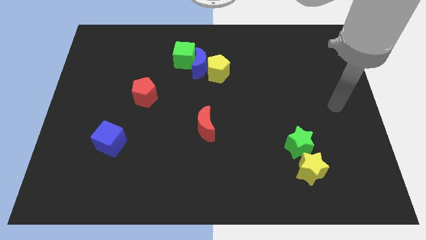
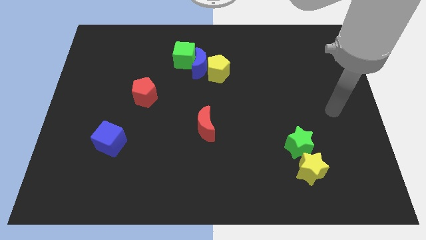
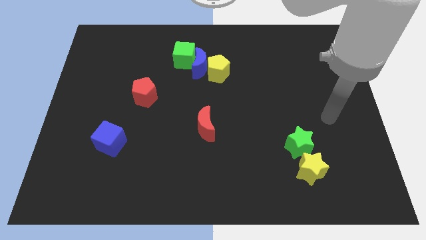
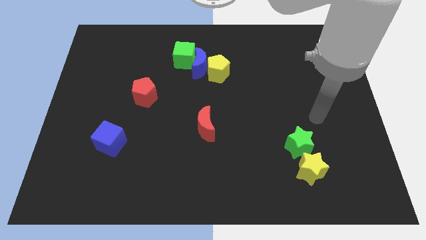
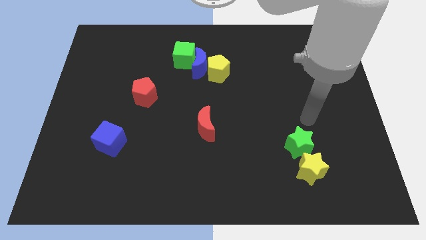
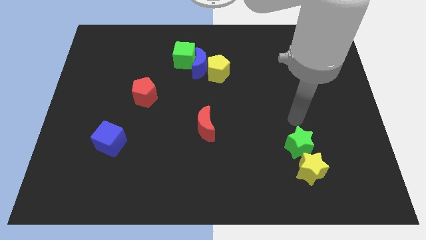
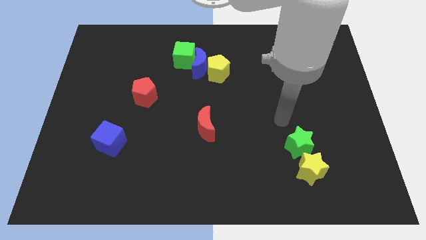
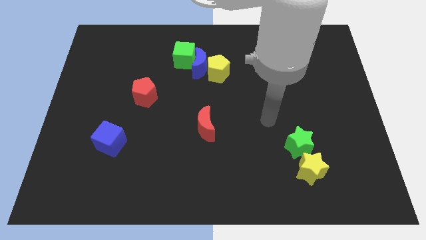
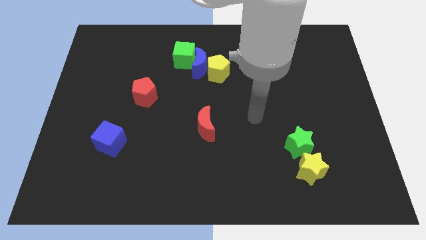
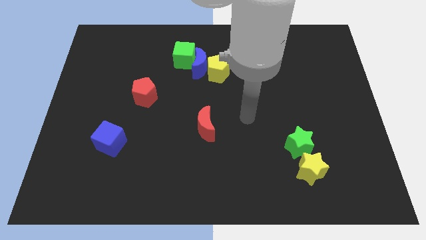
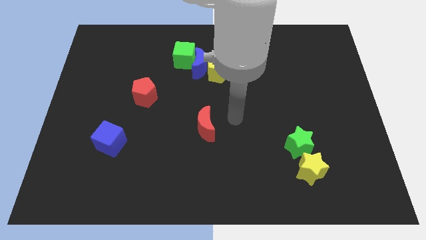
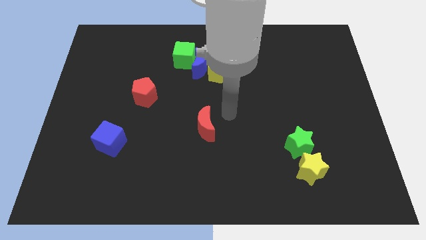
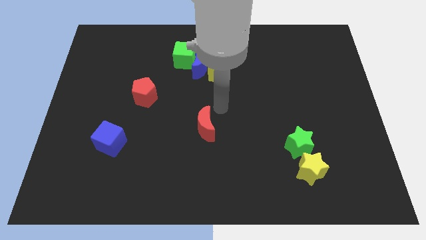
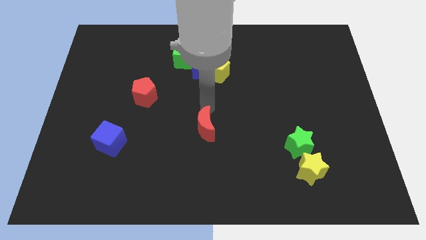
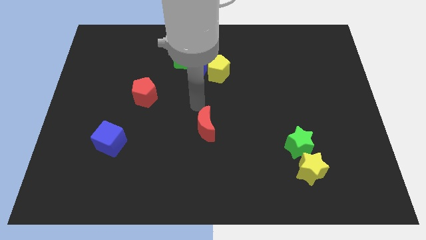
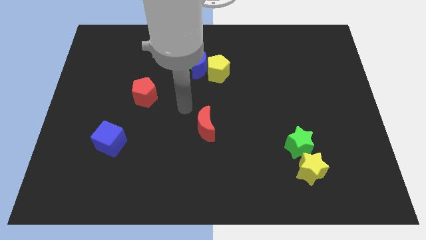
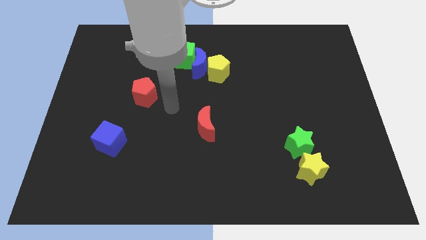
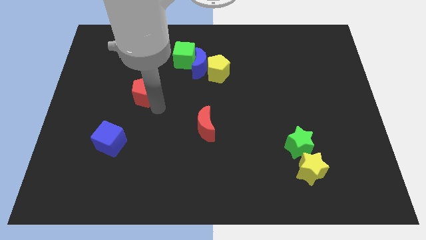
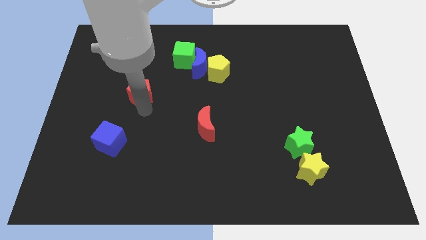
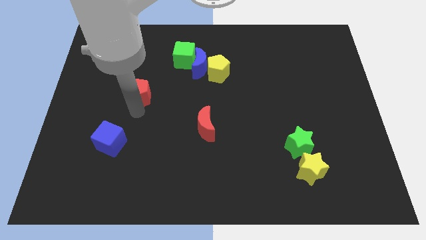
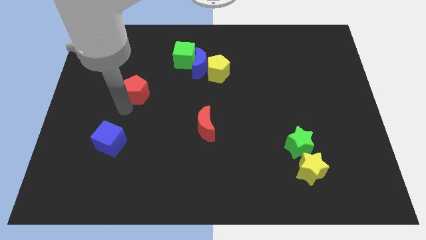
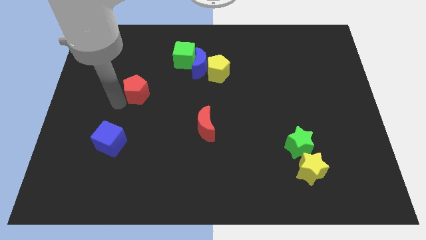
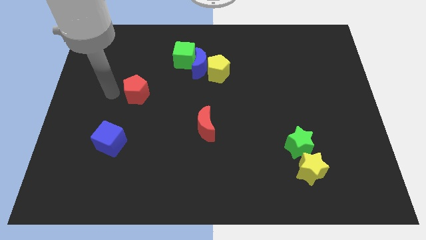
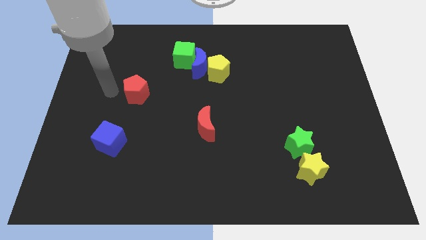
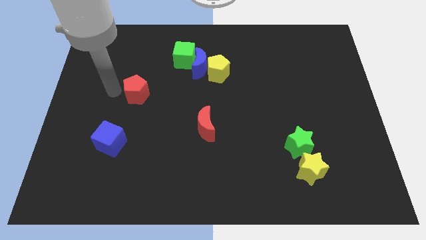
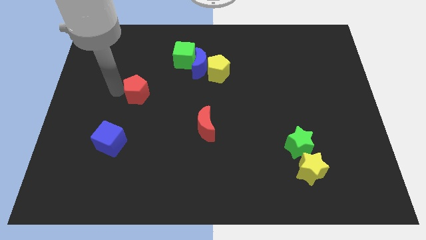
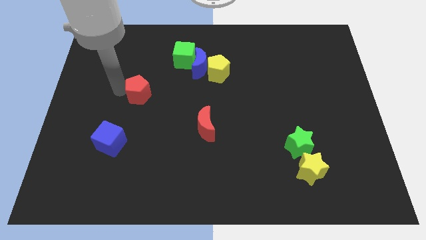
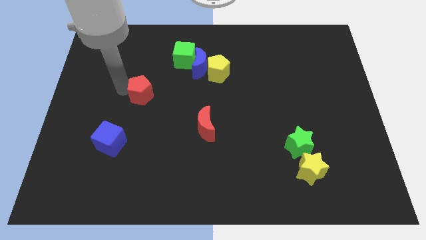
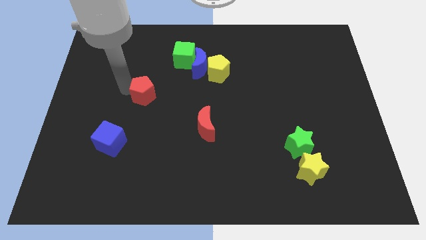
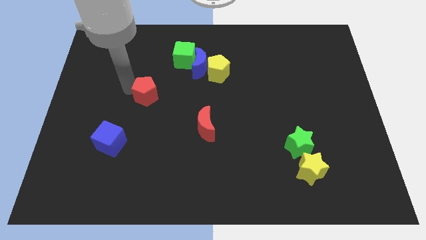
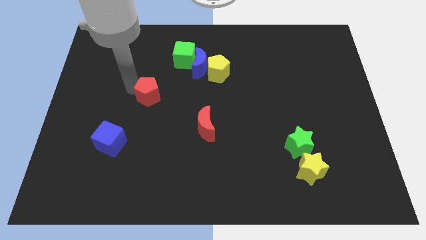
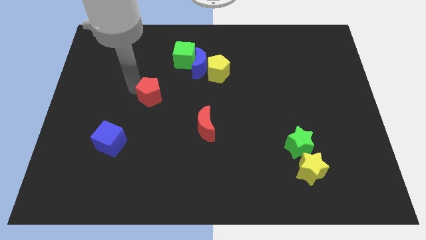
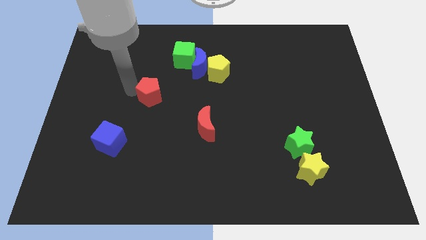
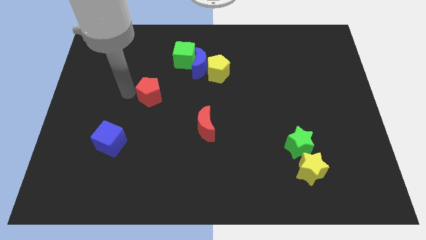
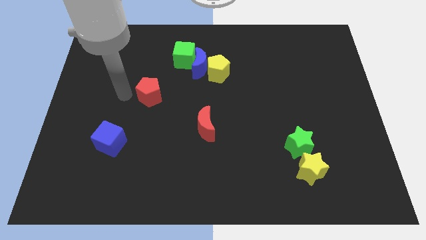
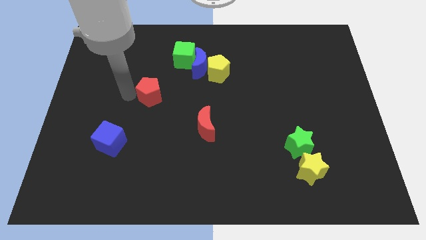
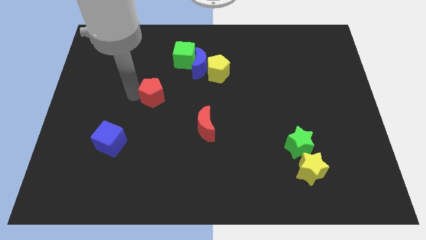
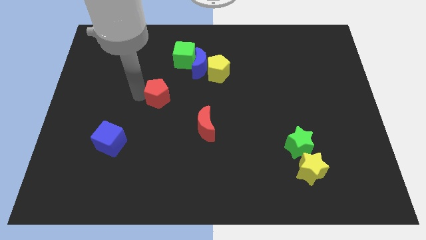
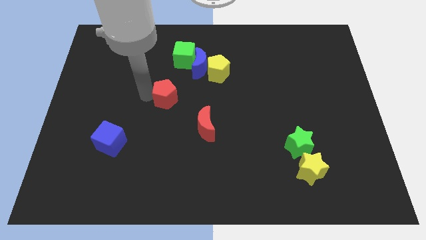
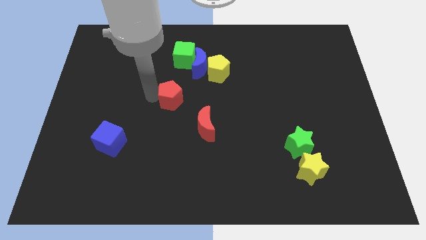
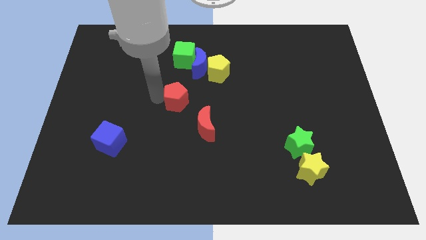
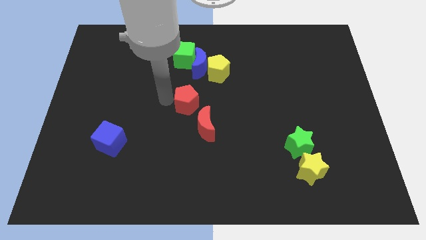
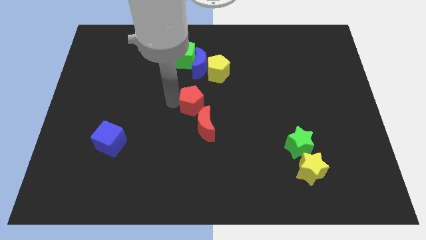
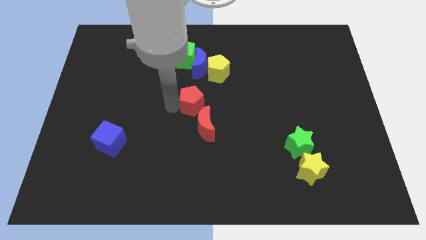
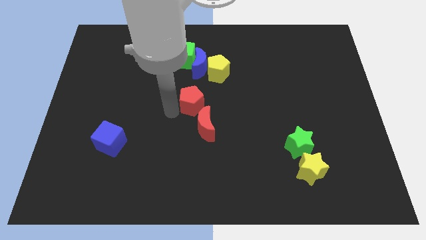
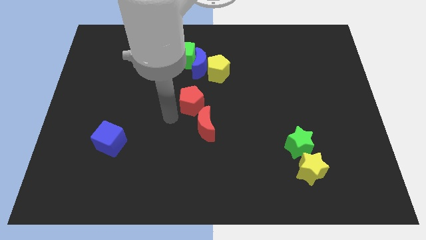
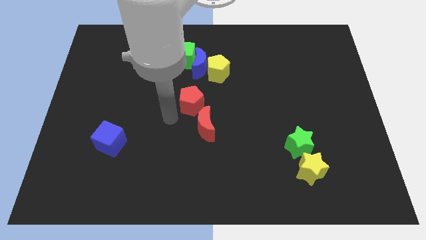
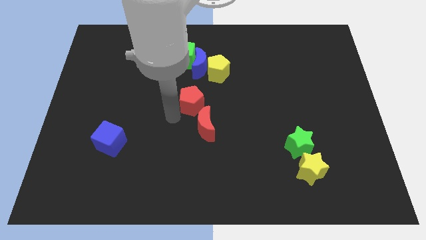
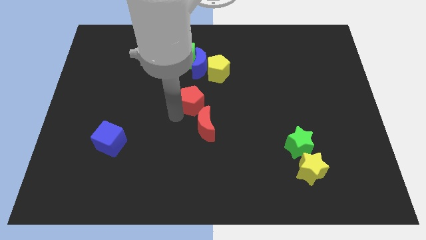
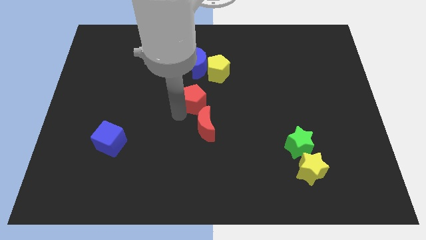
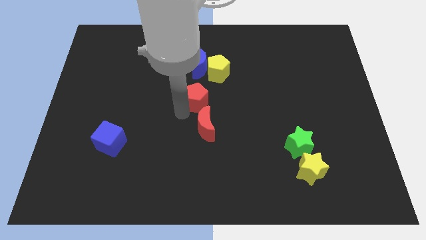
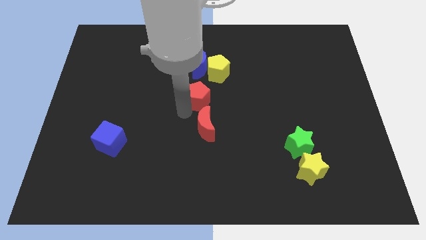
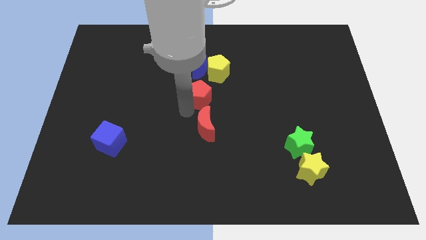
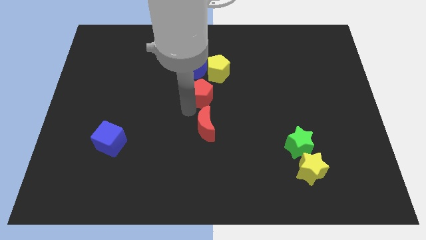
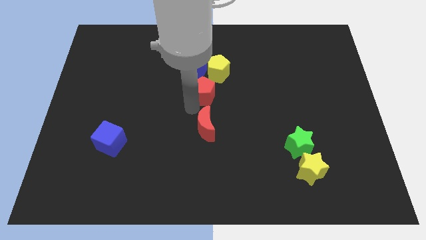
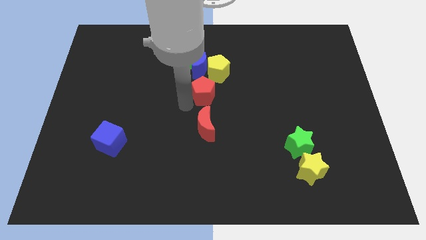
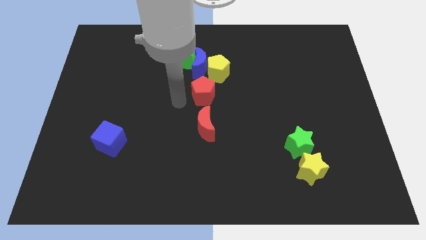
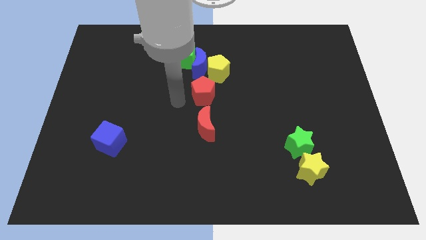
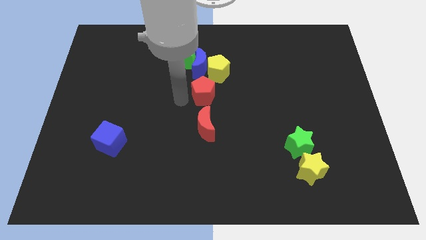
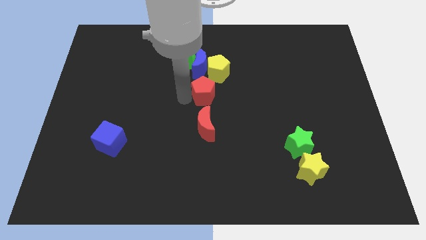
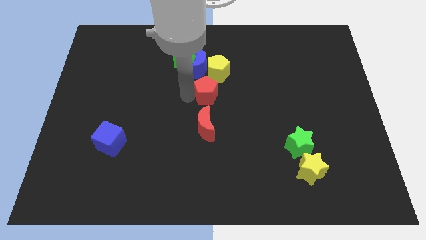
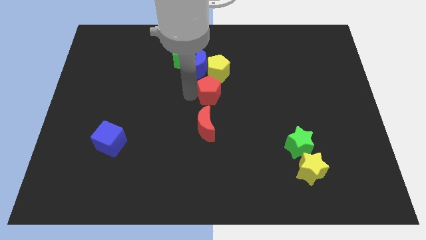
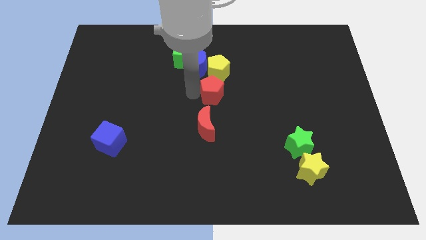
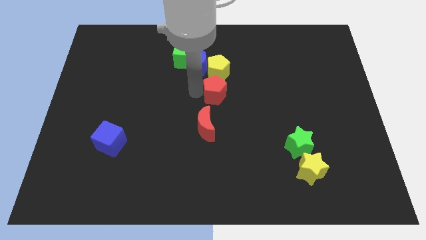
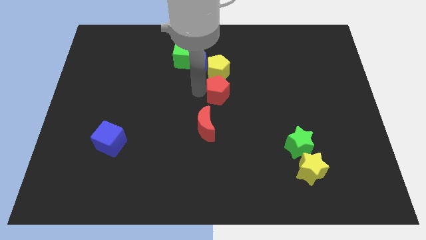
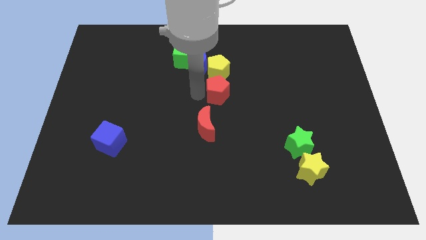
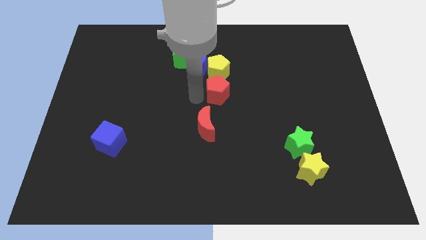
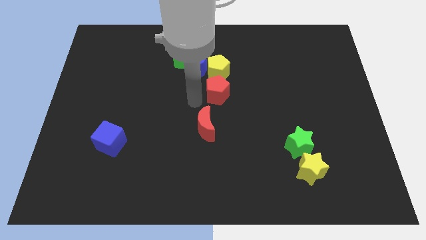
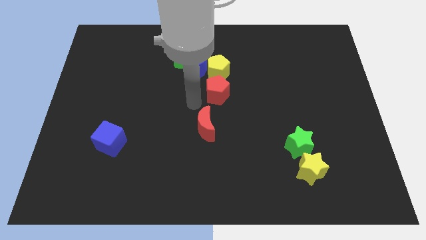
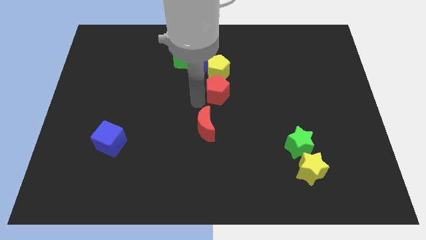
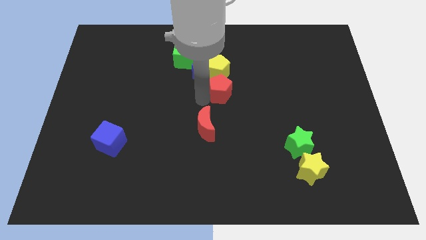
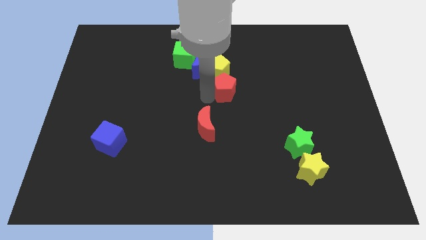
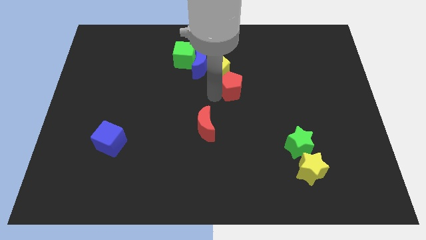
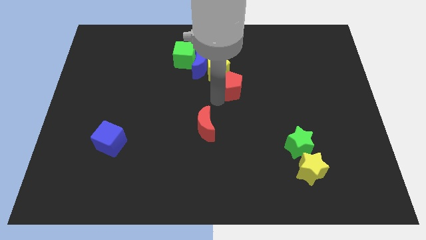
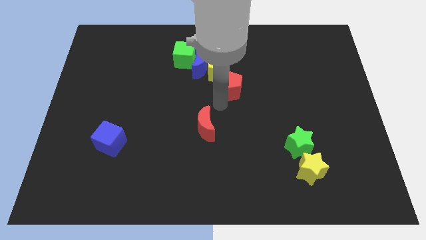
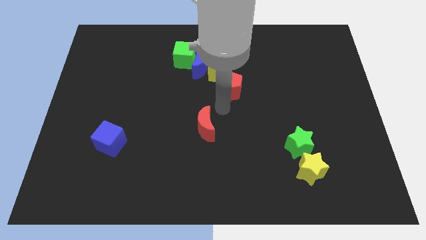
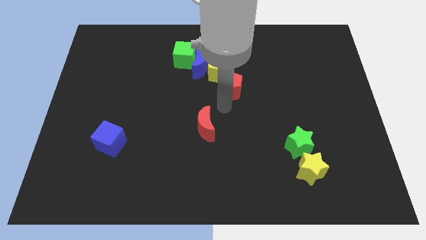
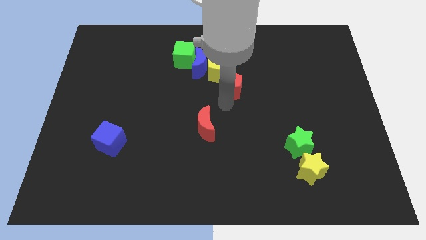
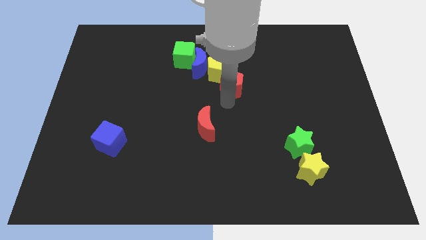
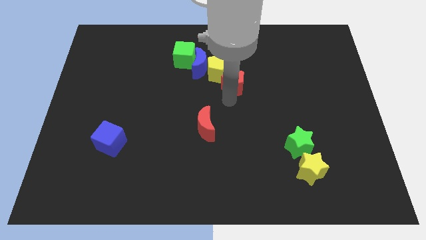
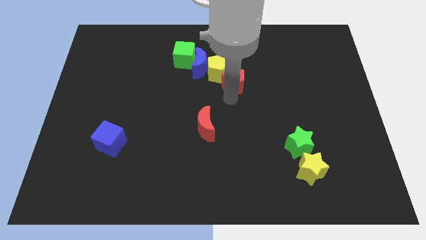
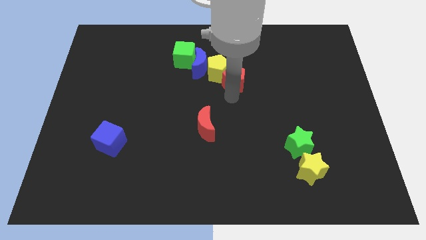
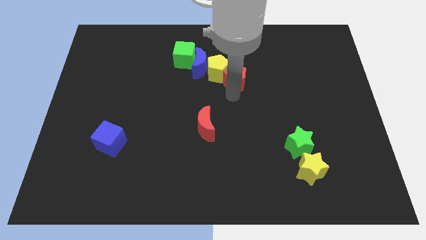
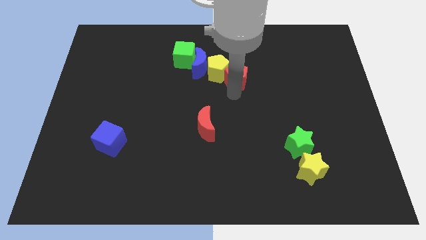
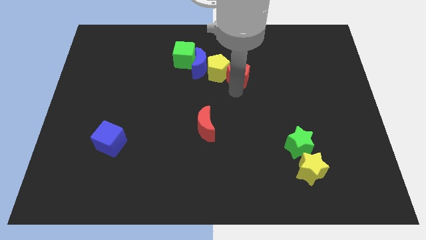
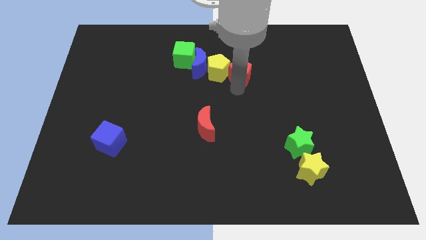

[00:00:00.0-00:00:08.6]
push the red pentagon to the top right side of the yellow pentagon
